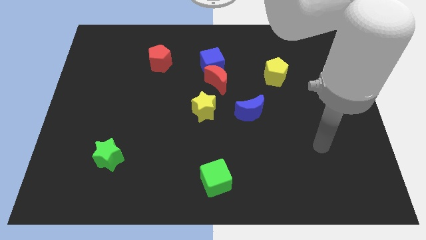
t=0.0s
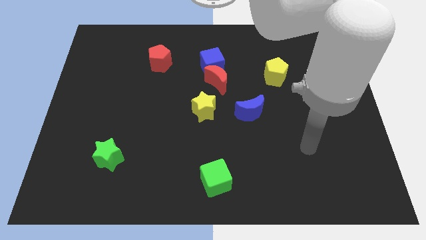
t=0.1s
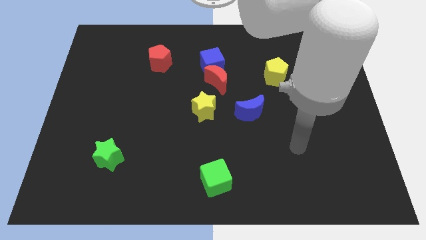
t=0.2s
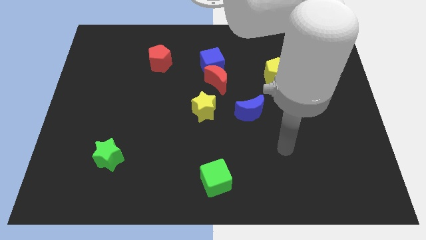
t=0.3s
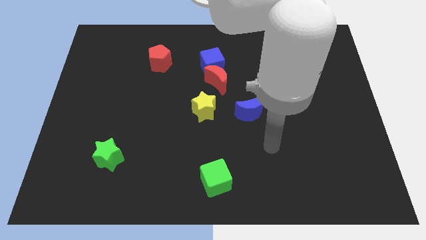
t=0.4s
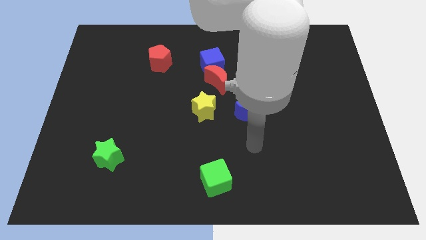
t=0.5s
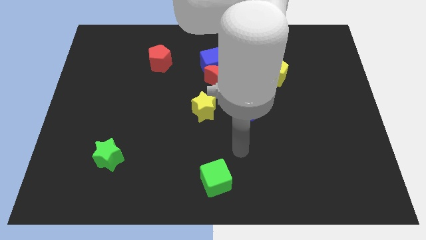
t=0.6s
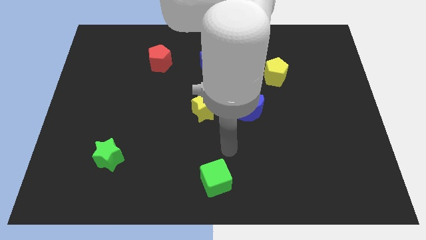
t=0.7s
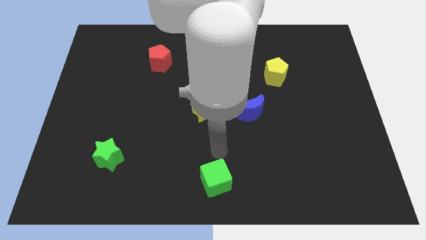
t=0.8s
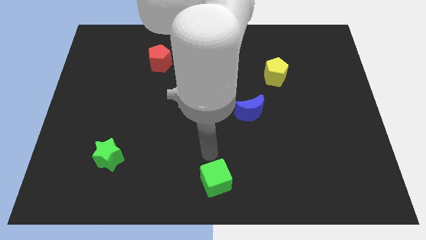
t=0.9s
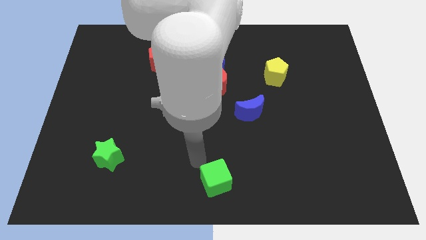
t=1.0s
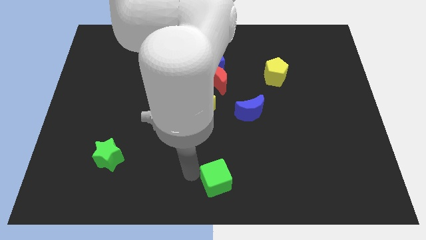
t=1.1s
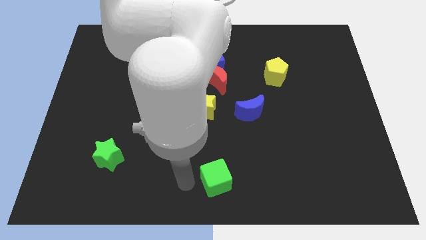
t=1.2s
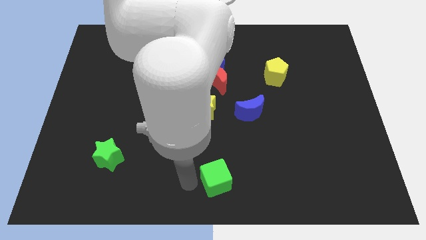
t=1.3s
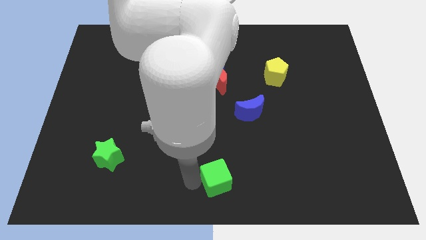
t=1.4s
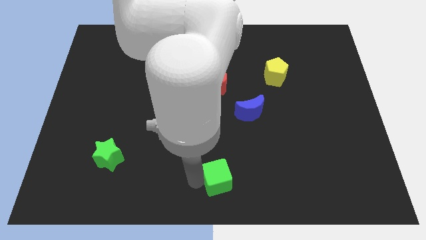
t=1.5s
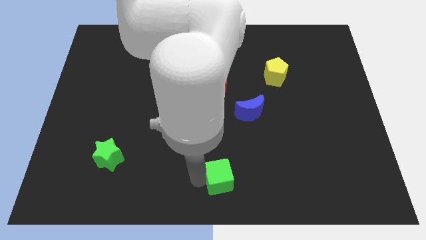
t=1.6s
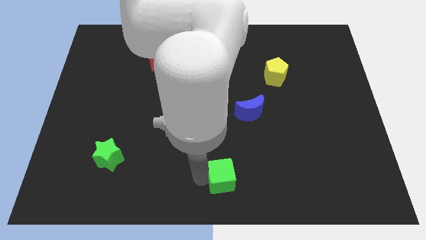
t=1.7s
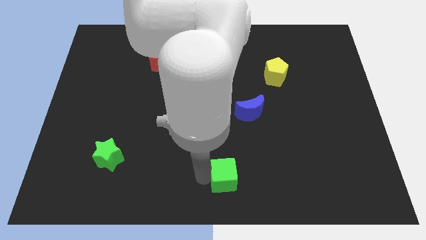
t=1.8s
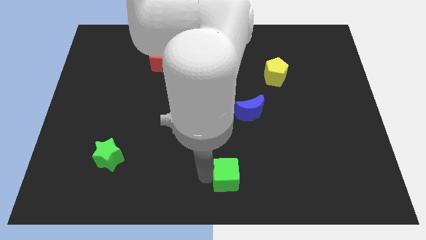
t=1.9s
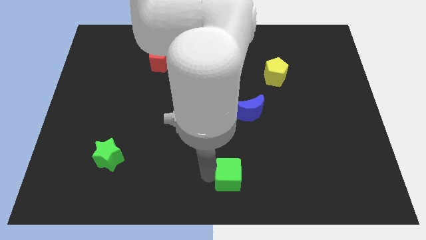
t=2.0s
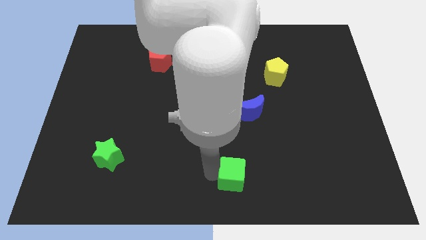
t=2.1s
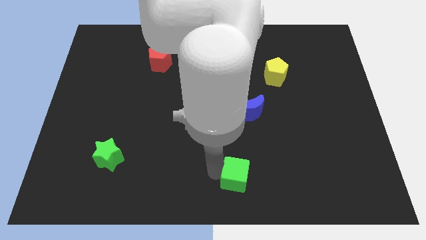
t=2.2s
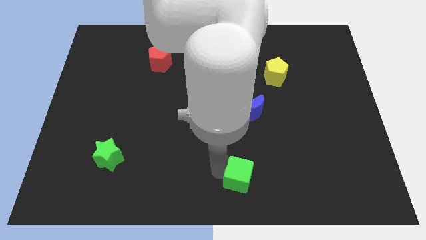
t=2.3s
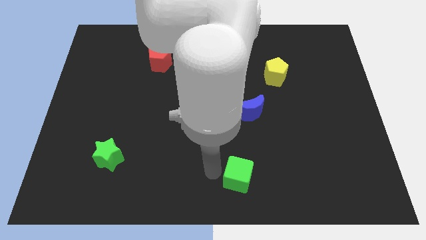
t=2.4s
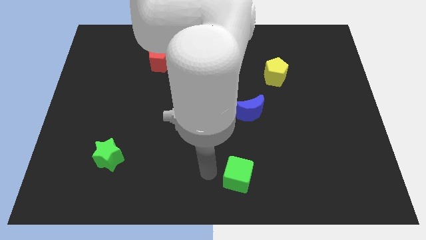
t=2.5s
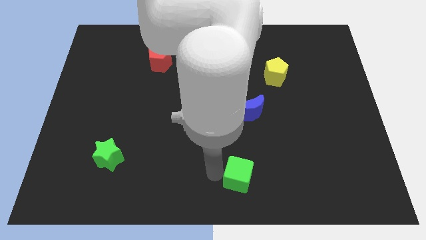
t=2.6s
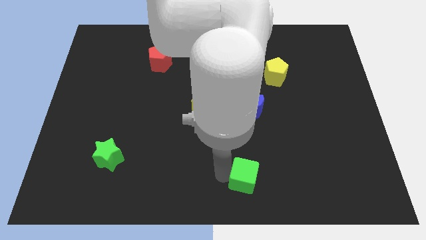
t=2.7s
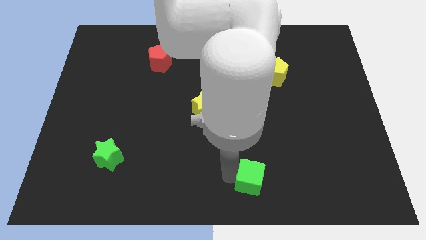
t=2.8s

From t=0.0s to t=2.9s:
push the green cube a little bit right

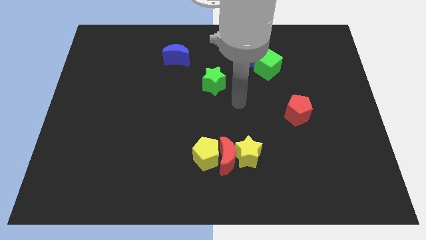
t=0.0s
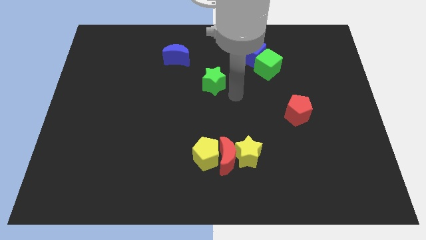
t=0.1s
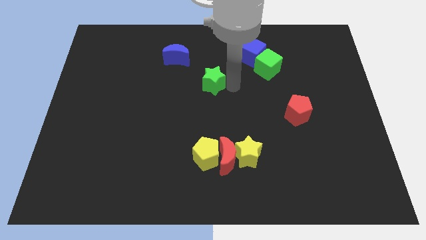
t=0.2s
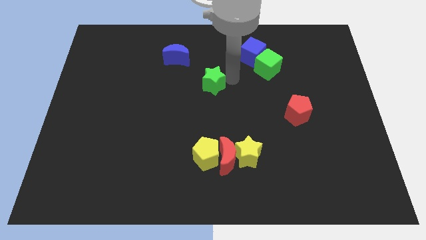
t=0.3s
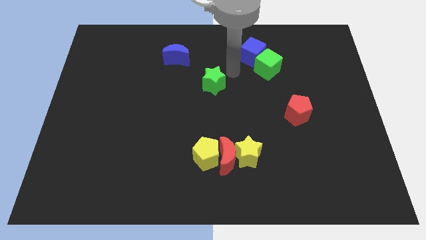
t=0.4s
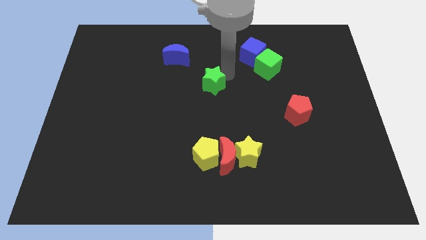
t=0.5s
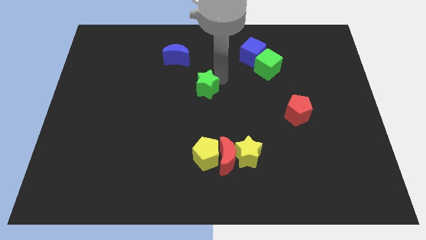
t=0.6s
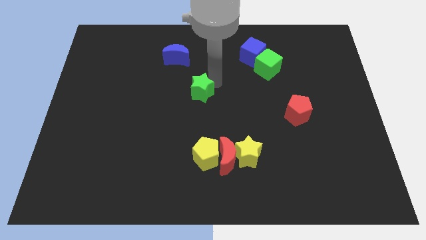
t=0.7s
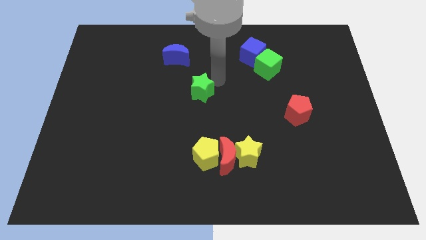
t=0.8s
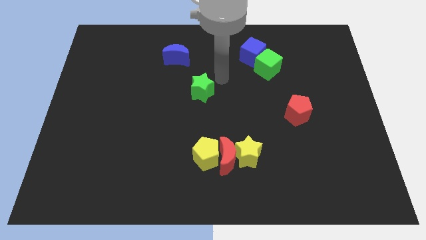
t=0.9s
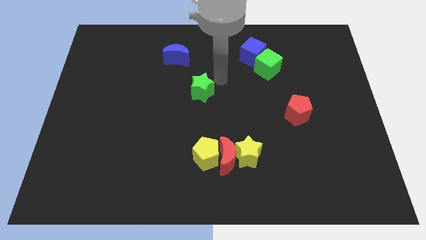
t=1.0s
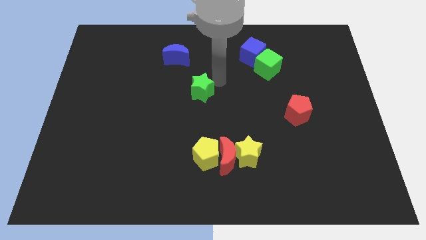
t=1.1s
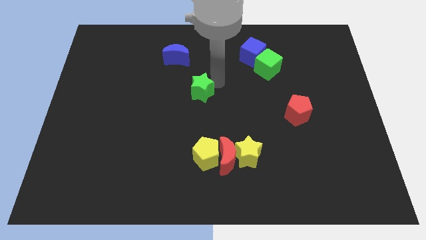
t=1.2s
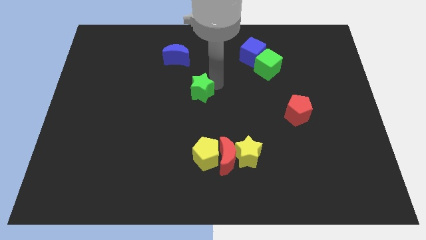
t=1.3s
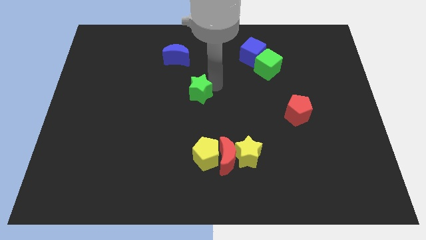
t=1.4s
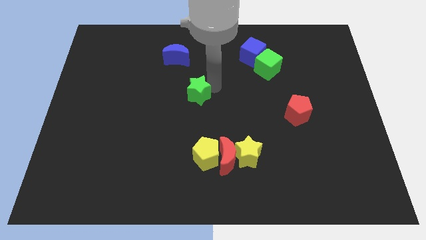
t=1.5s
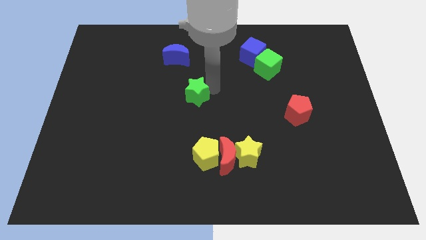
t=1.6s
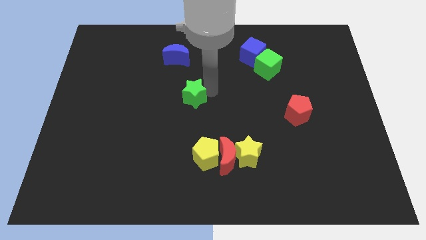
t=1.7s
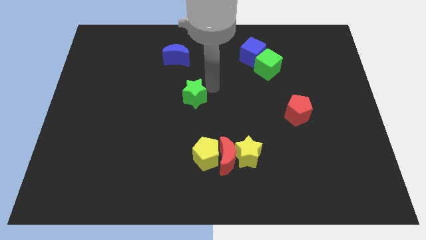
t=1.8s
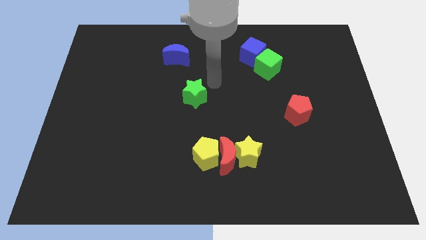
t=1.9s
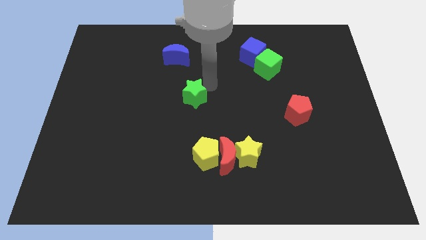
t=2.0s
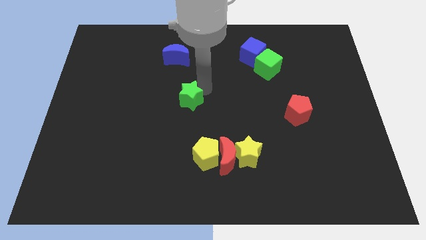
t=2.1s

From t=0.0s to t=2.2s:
slide the green star a little downwards and left diagonally

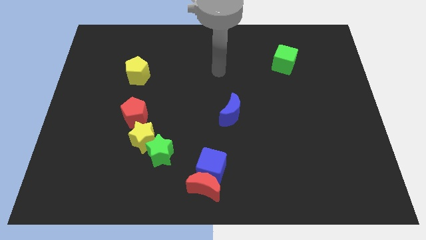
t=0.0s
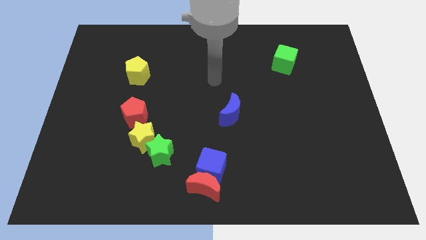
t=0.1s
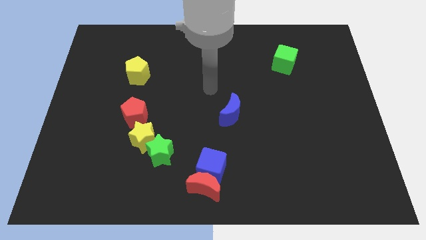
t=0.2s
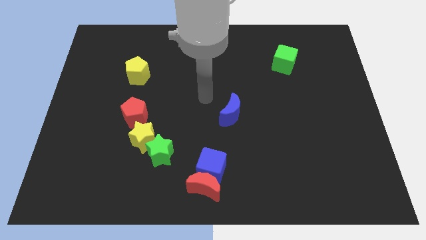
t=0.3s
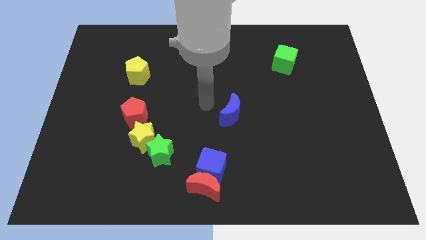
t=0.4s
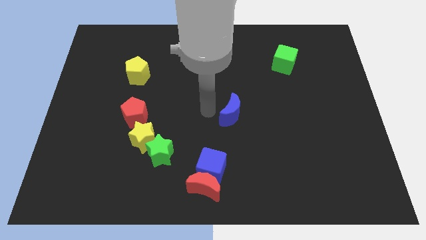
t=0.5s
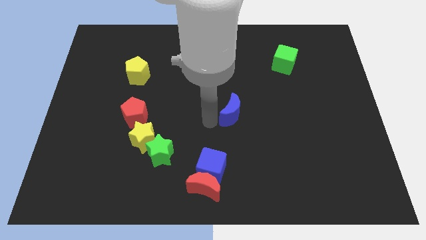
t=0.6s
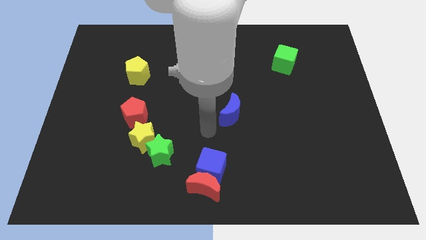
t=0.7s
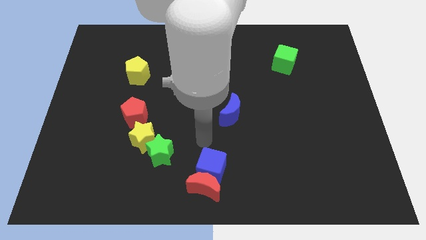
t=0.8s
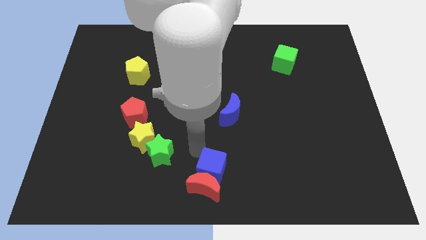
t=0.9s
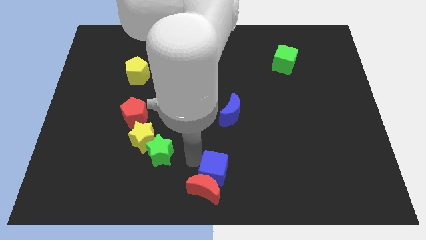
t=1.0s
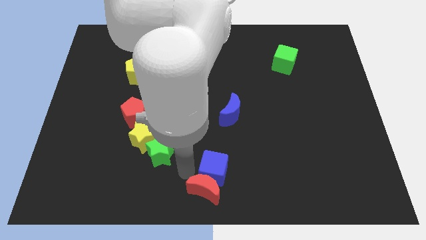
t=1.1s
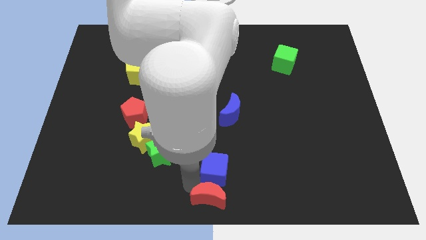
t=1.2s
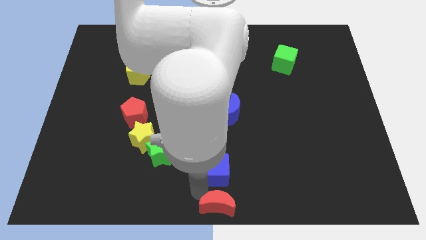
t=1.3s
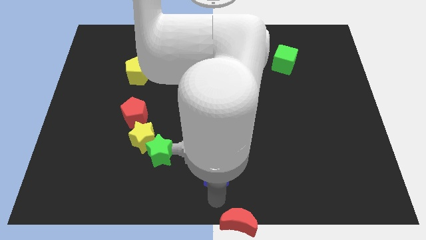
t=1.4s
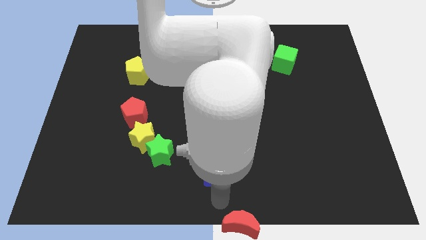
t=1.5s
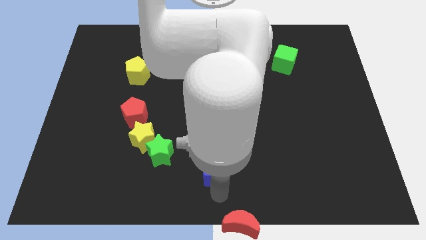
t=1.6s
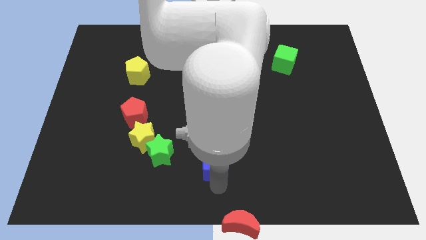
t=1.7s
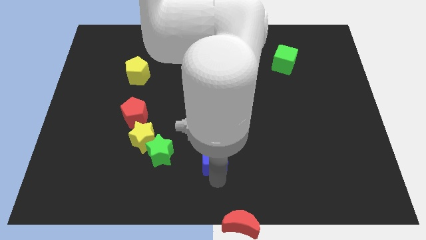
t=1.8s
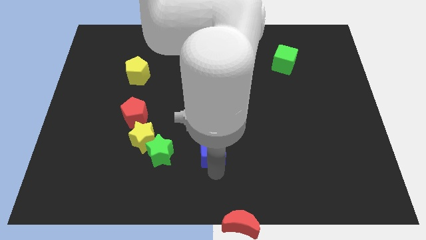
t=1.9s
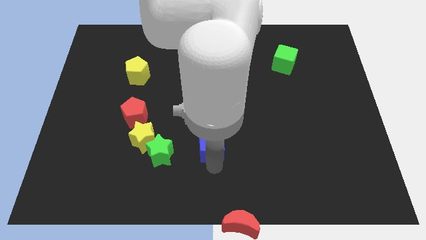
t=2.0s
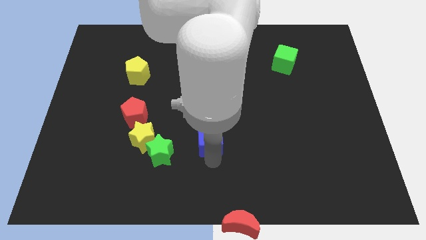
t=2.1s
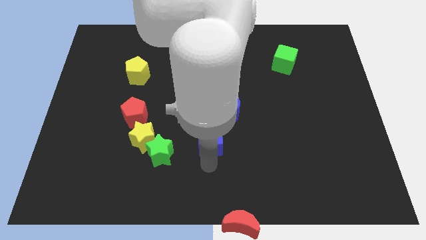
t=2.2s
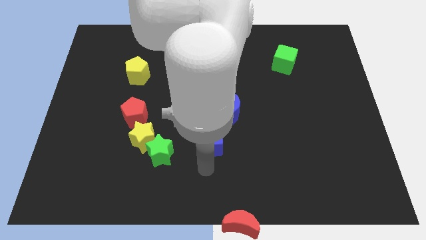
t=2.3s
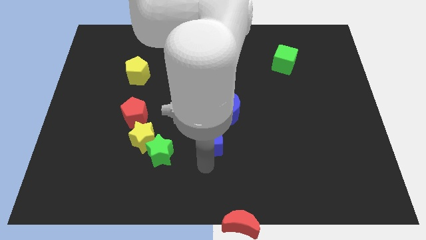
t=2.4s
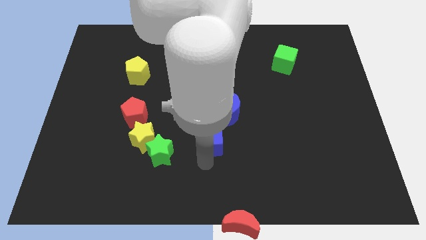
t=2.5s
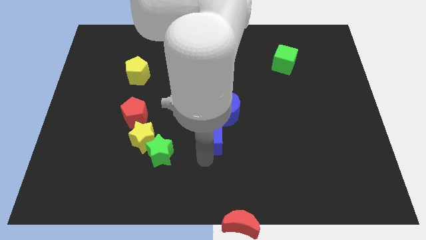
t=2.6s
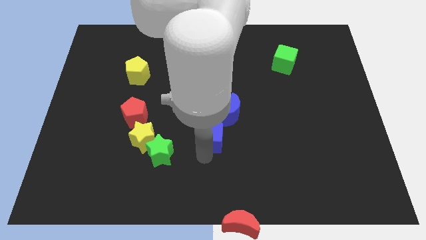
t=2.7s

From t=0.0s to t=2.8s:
push the blue cube upwards a little

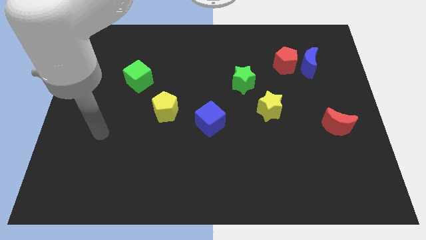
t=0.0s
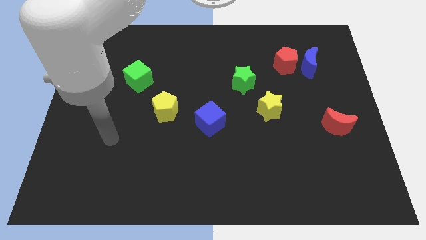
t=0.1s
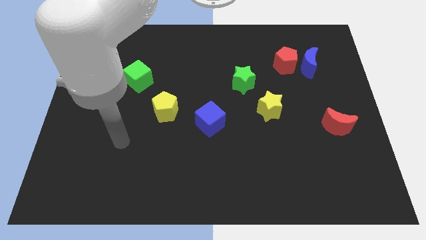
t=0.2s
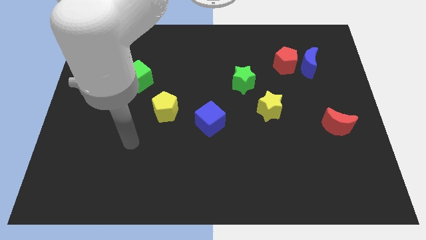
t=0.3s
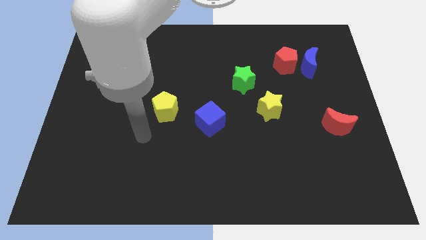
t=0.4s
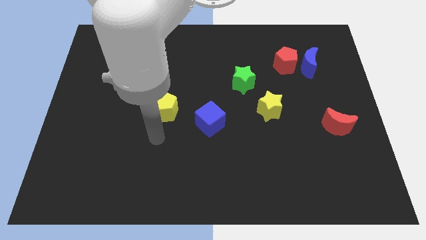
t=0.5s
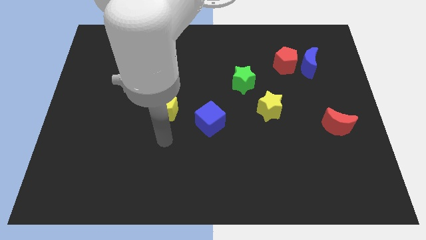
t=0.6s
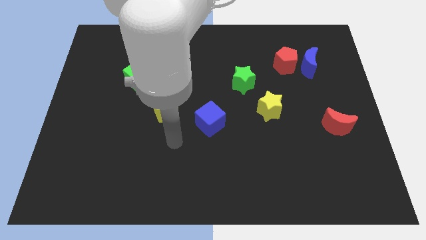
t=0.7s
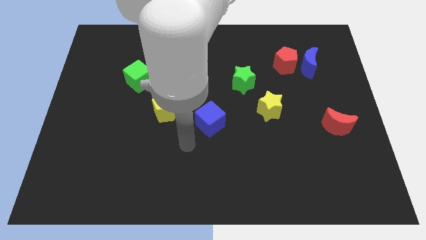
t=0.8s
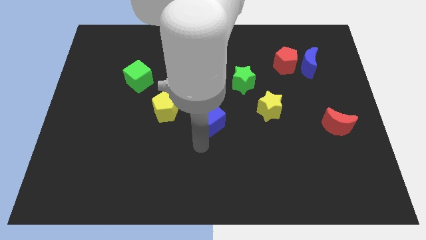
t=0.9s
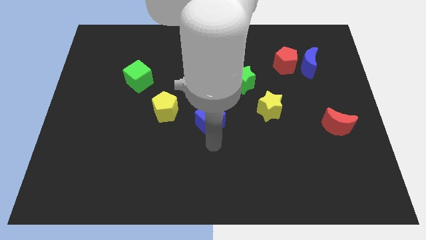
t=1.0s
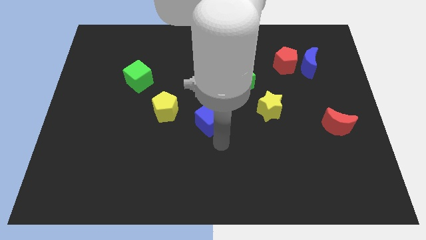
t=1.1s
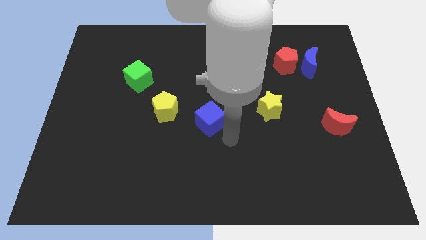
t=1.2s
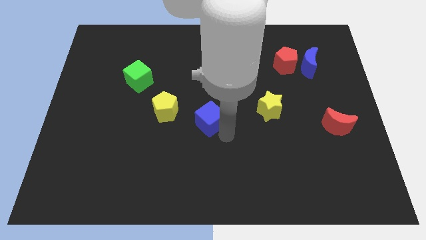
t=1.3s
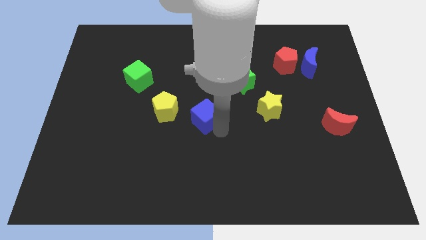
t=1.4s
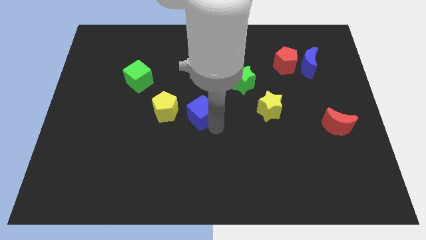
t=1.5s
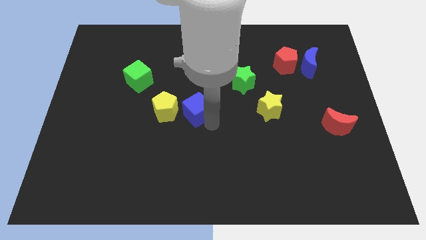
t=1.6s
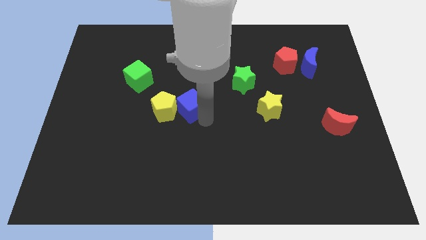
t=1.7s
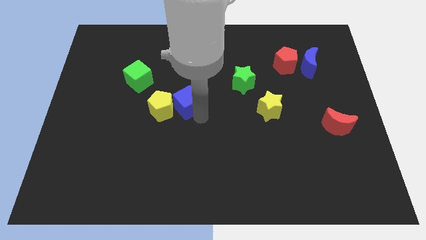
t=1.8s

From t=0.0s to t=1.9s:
slide the blue cube diagonally upwards and to the left a bit
